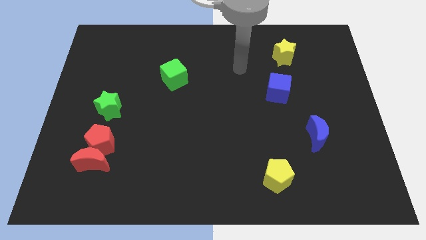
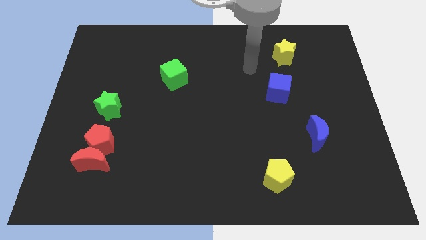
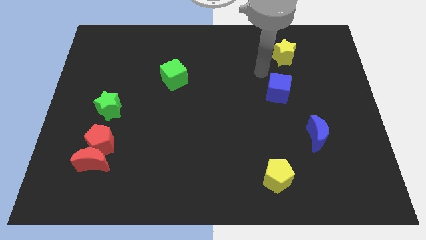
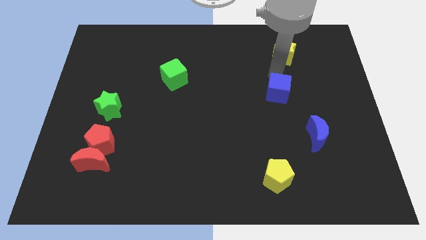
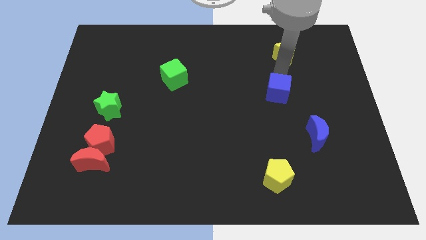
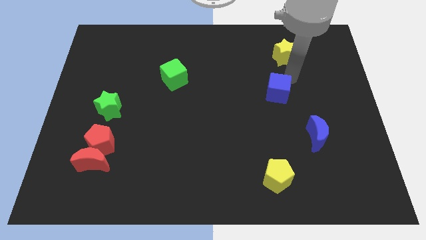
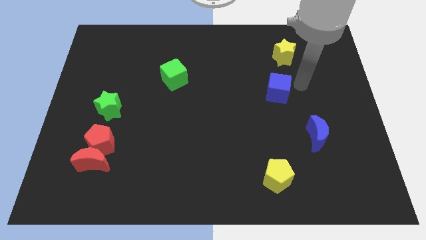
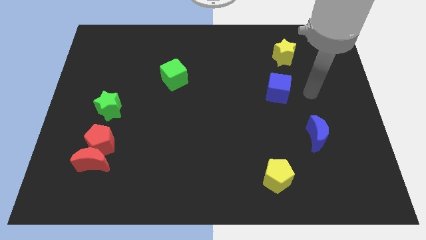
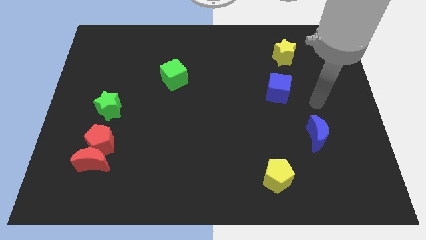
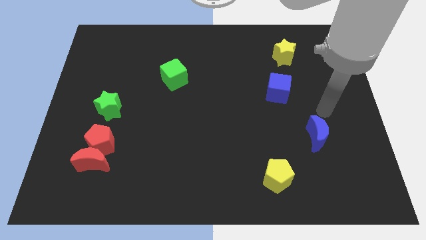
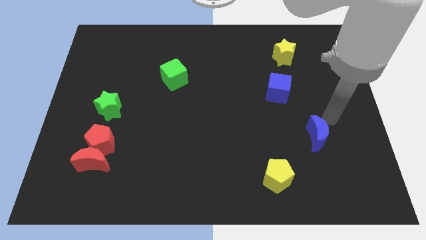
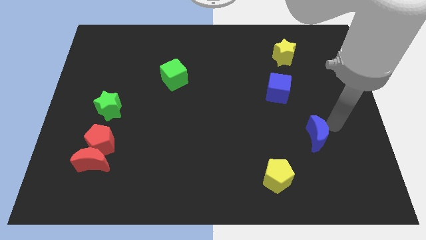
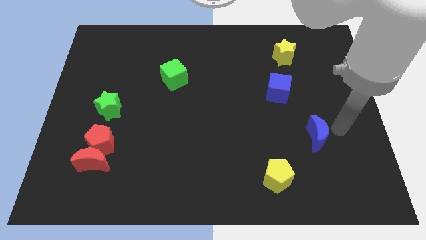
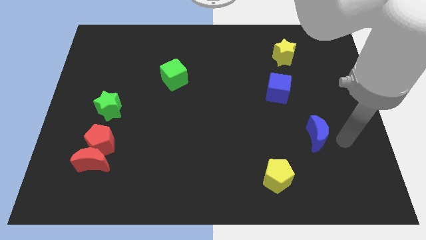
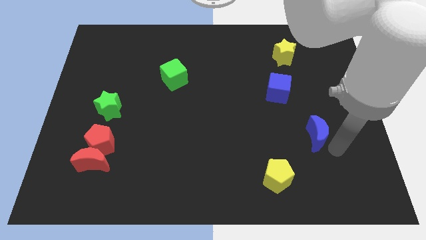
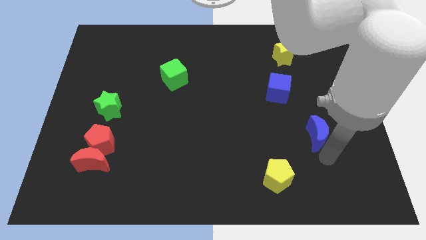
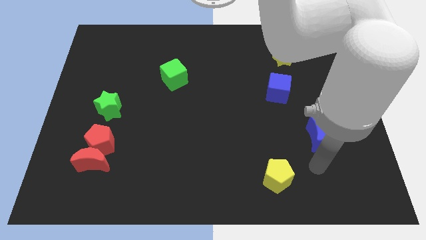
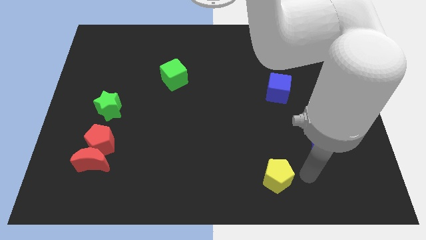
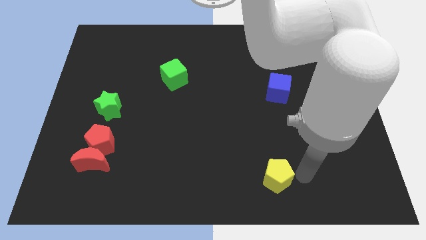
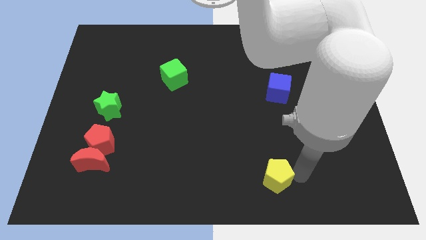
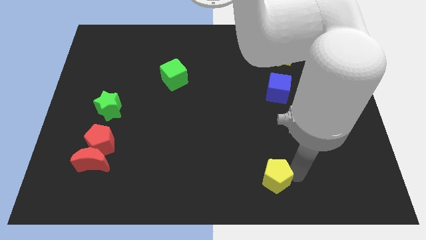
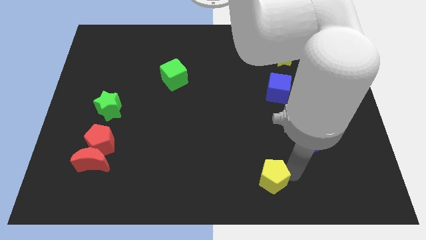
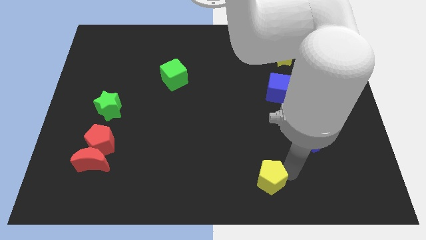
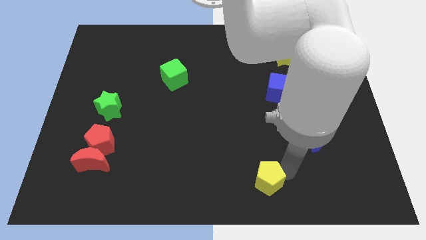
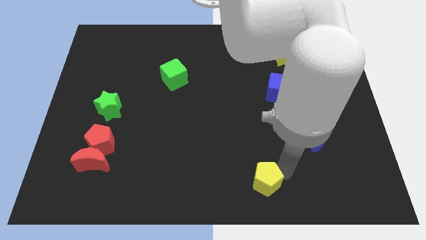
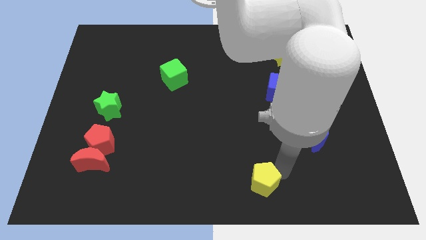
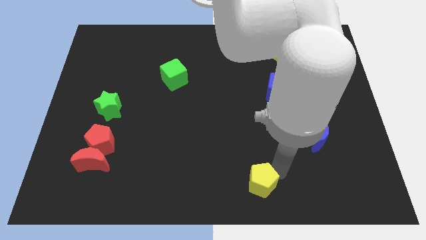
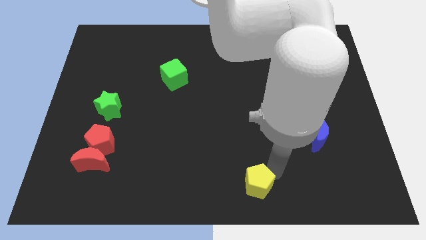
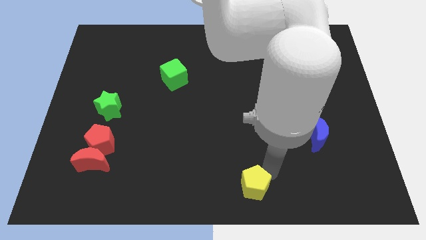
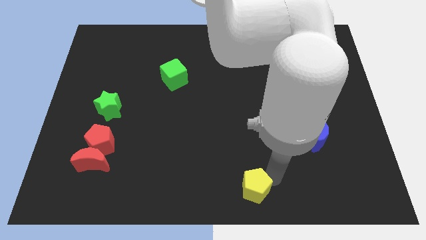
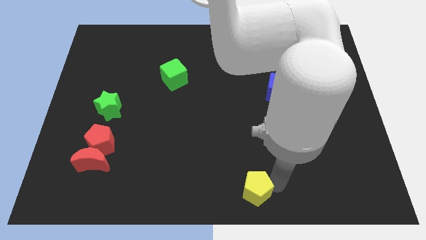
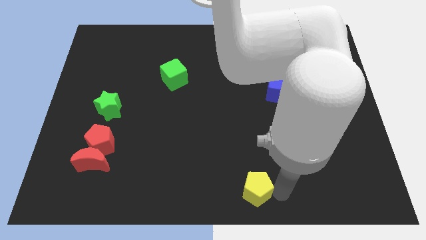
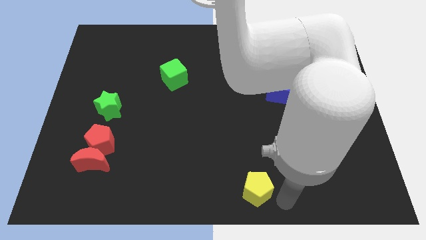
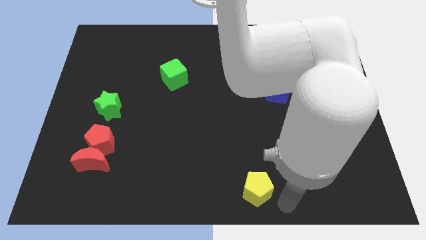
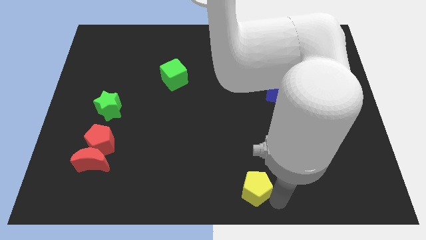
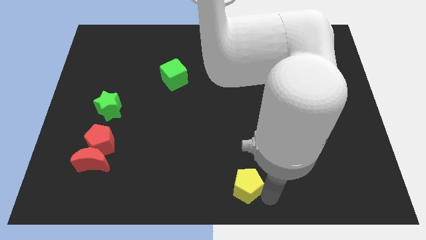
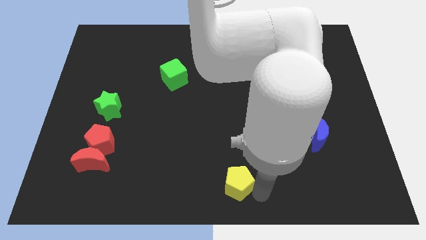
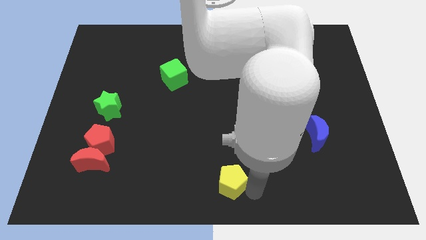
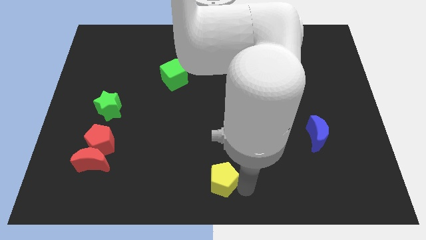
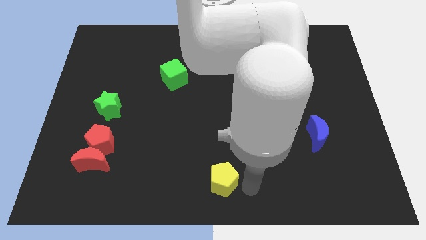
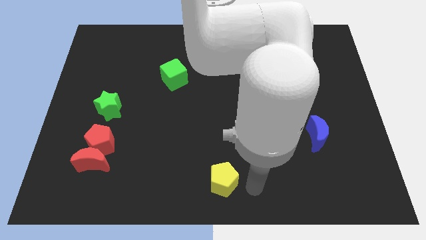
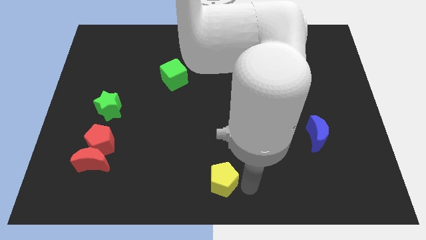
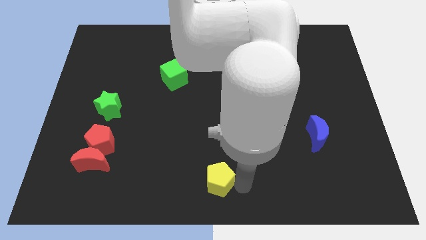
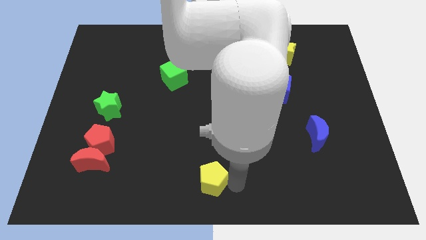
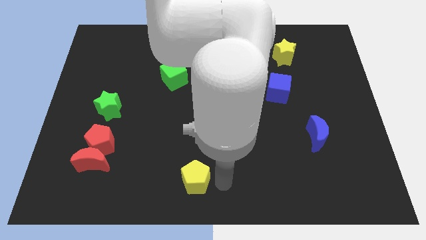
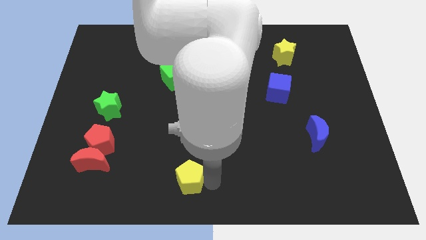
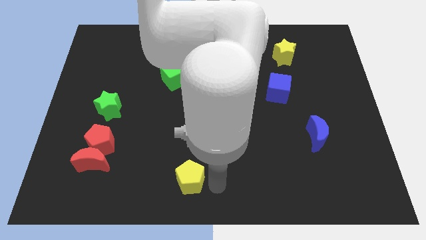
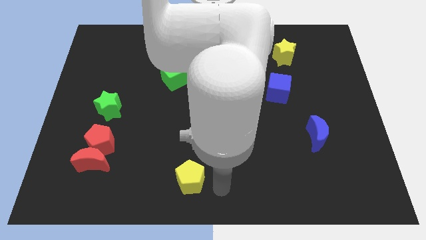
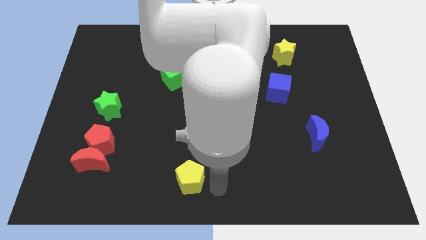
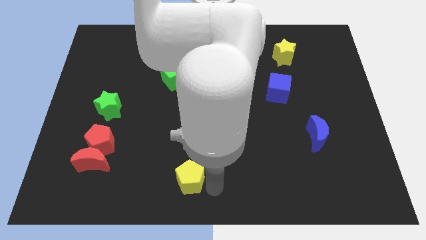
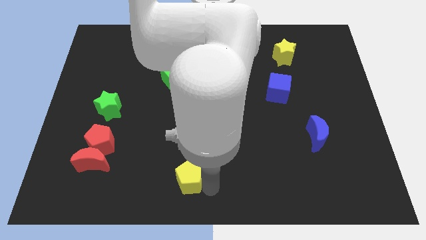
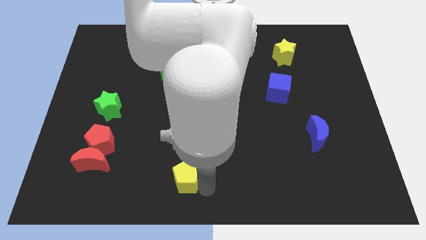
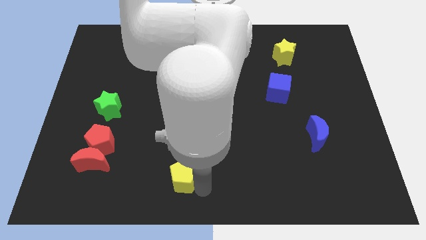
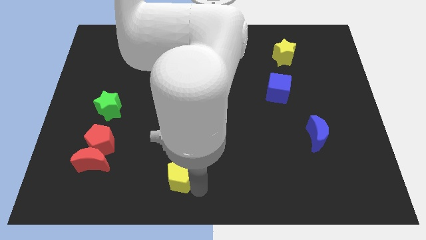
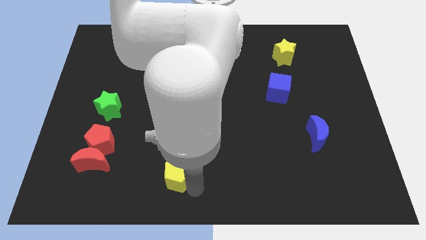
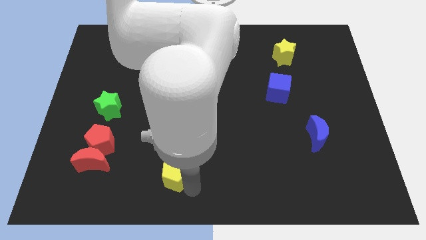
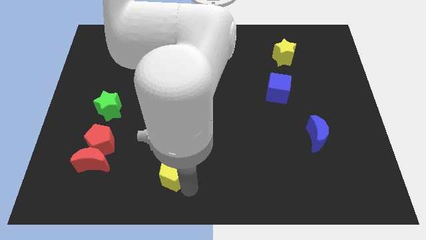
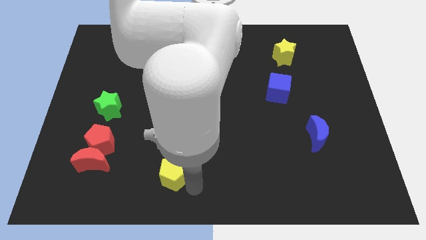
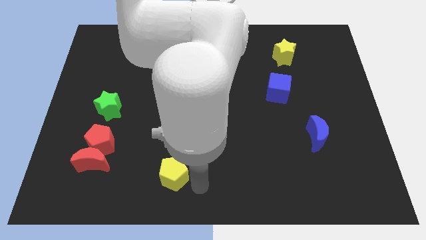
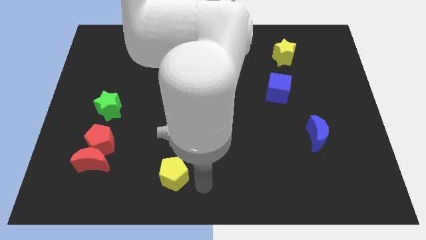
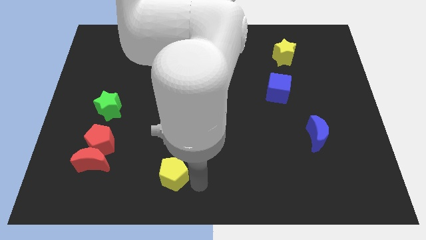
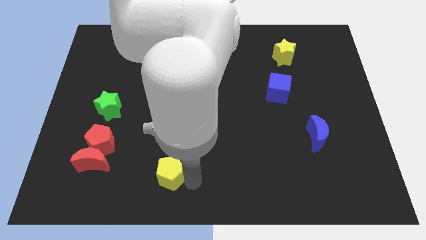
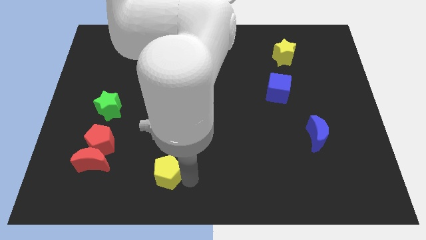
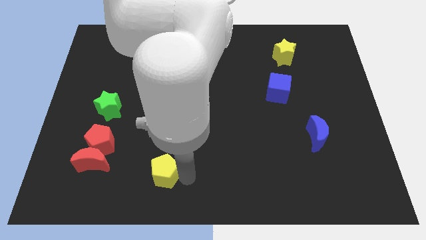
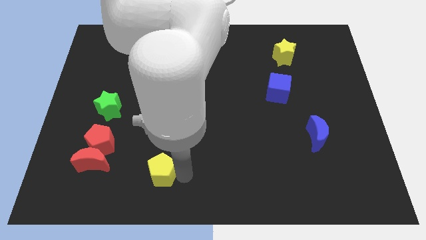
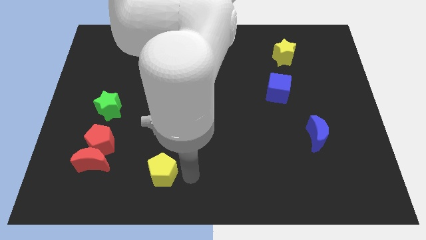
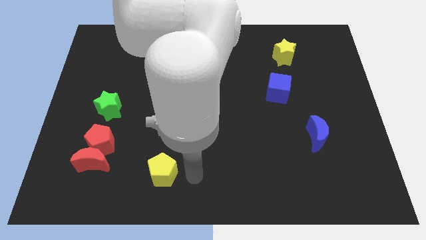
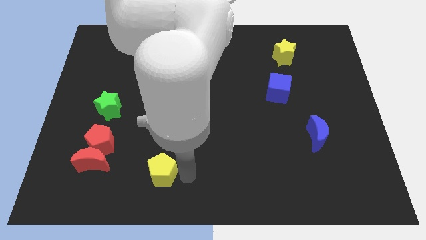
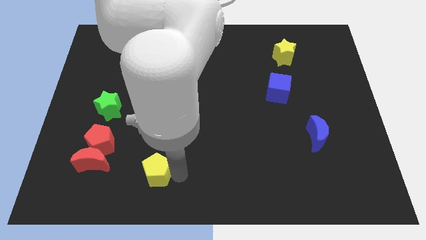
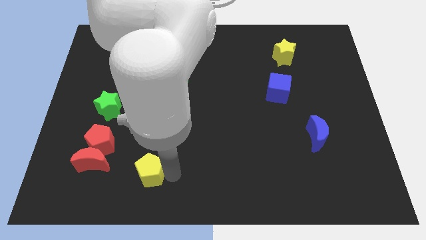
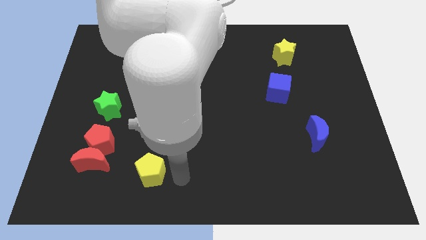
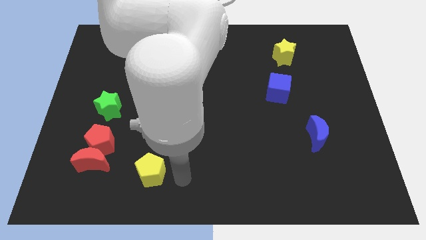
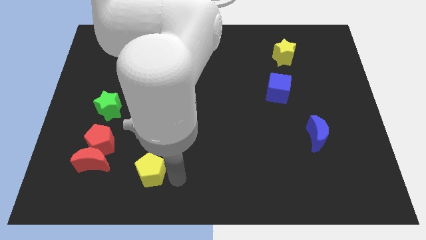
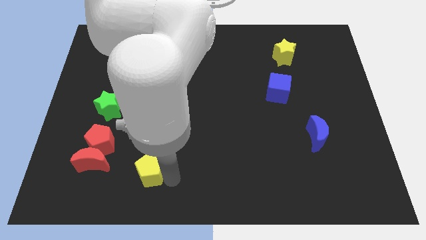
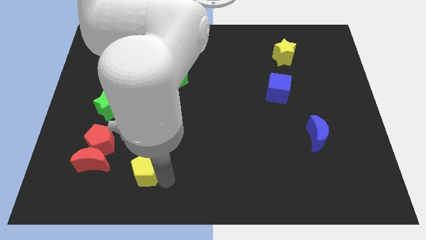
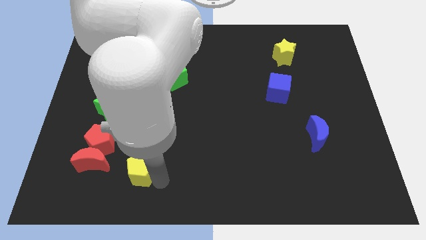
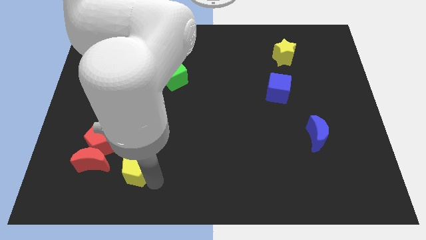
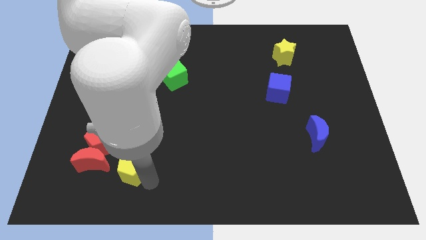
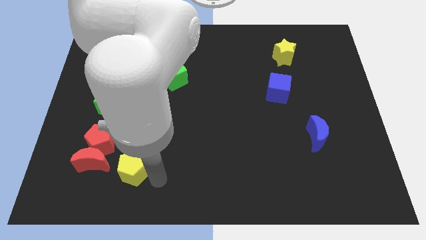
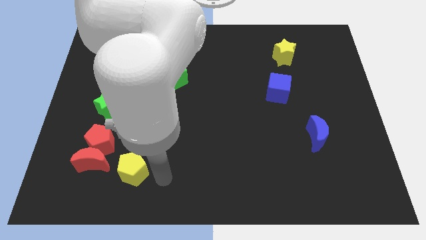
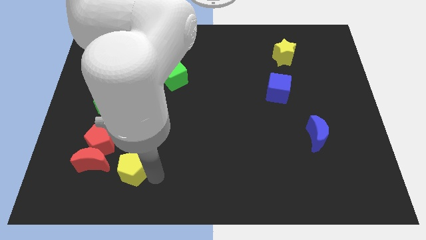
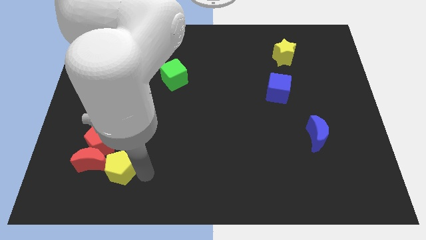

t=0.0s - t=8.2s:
move the yellow pentagon towards the red moon
